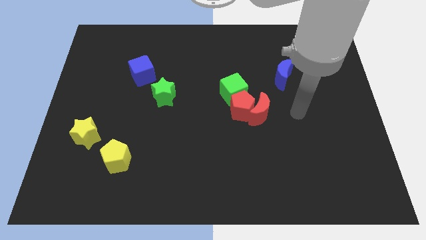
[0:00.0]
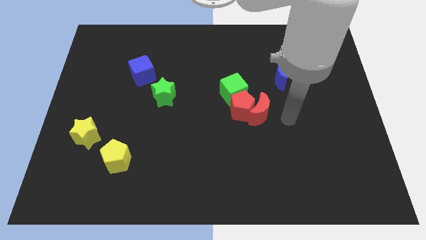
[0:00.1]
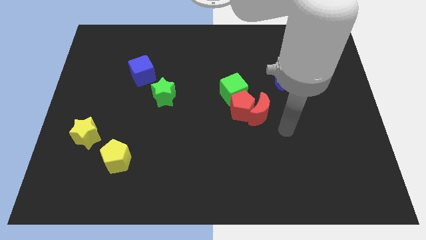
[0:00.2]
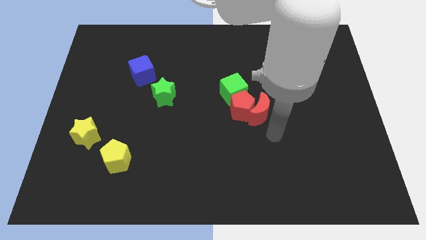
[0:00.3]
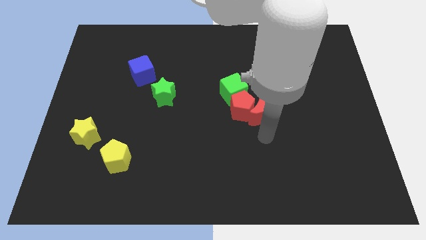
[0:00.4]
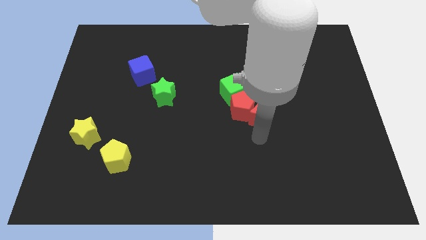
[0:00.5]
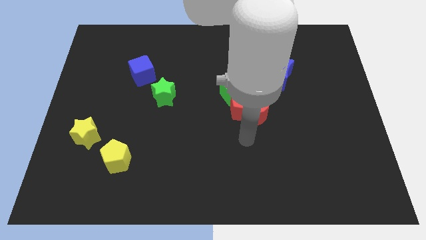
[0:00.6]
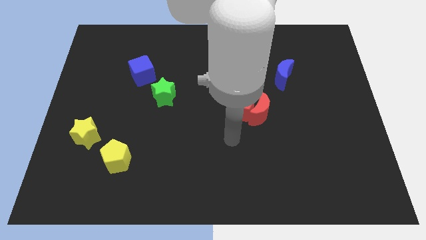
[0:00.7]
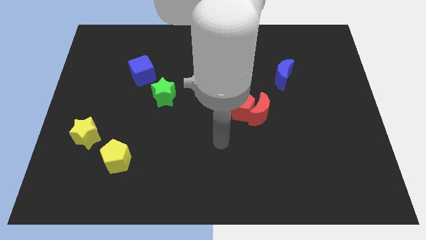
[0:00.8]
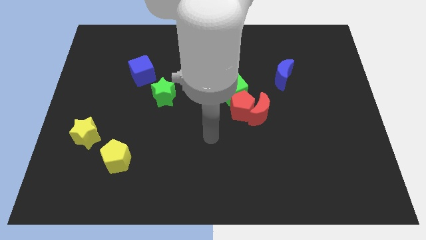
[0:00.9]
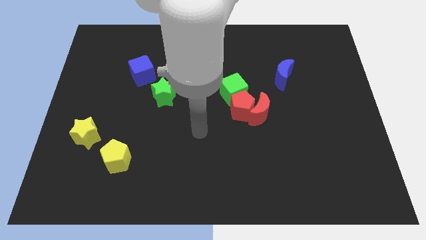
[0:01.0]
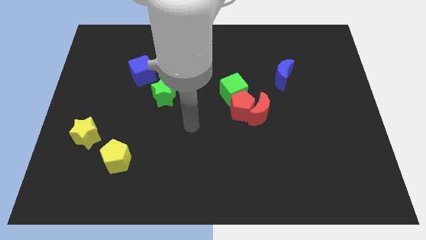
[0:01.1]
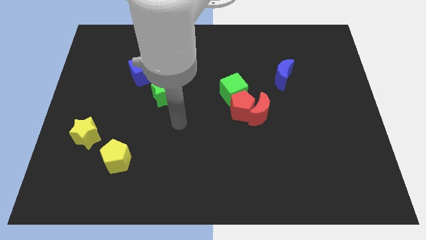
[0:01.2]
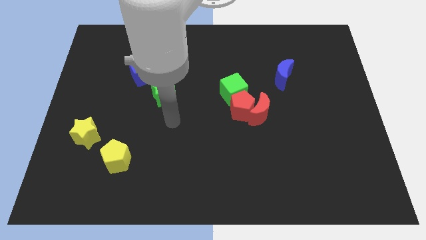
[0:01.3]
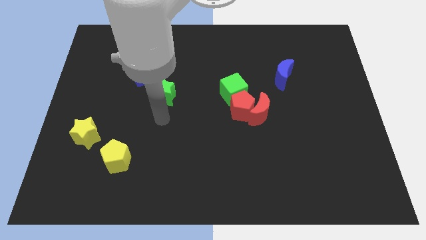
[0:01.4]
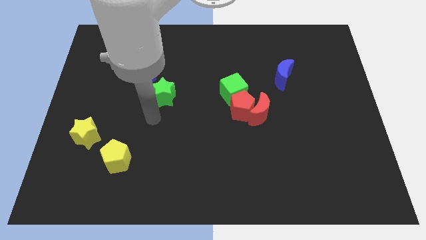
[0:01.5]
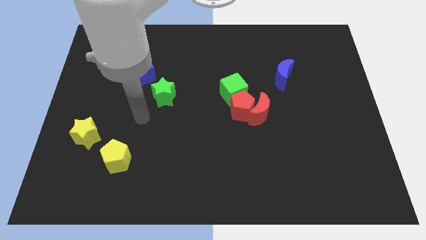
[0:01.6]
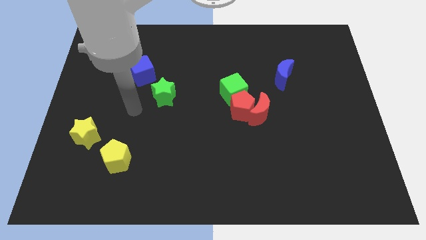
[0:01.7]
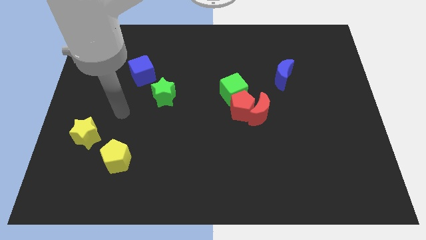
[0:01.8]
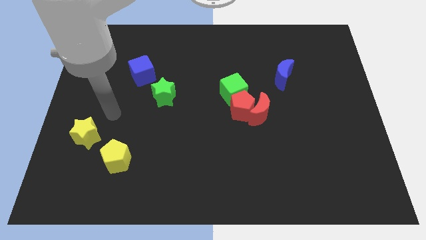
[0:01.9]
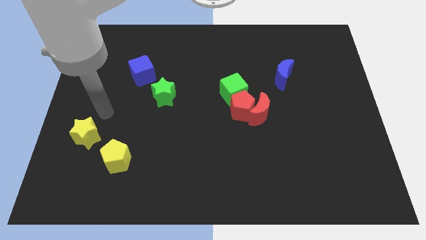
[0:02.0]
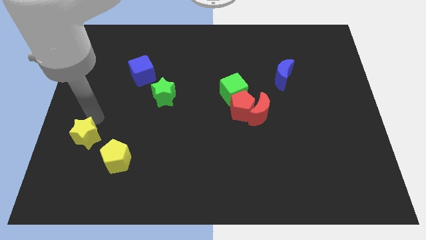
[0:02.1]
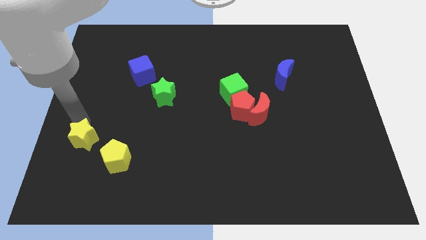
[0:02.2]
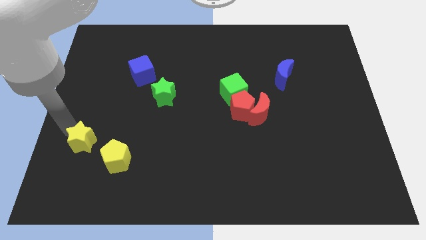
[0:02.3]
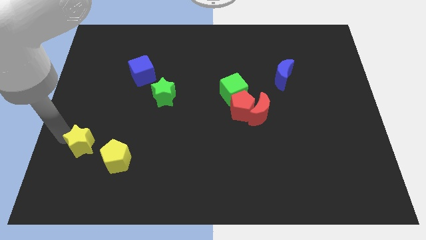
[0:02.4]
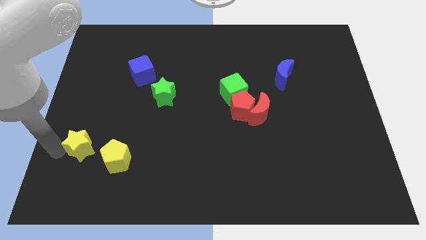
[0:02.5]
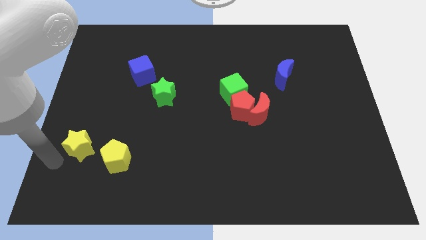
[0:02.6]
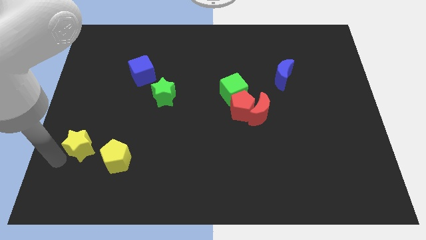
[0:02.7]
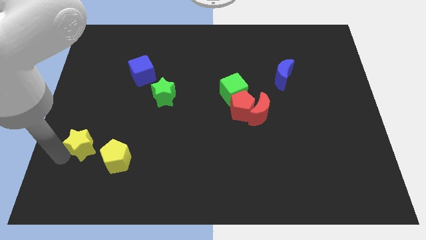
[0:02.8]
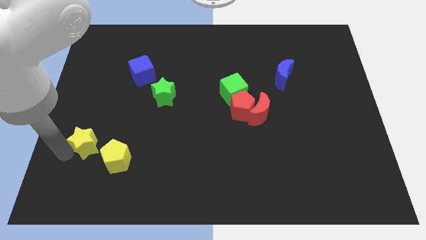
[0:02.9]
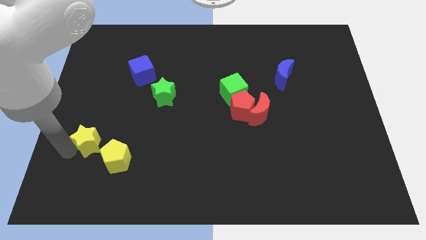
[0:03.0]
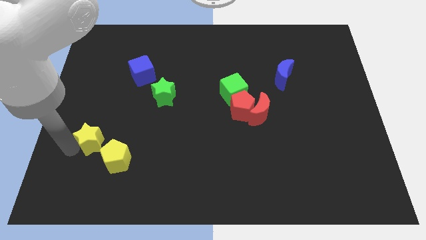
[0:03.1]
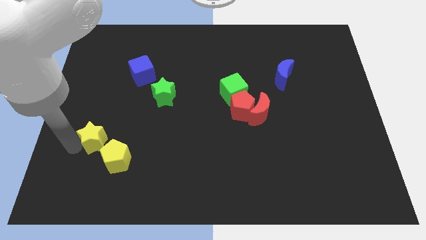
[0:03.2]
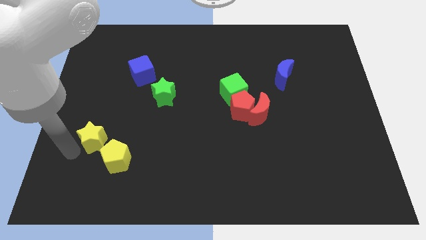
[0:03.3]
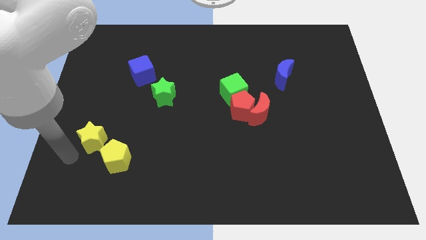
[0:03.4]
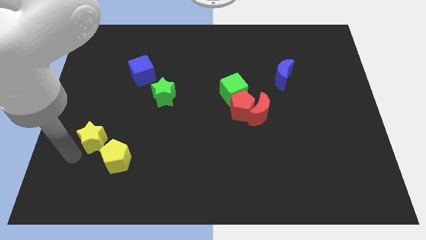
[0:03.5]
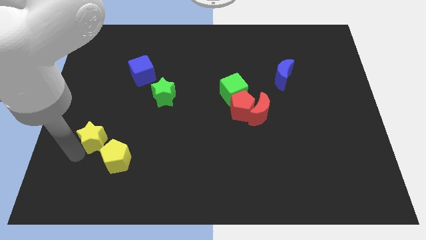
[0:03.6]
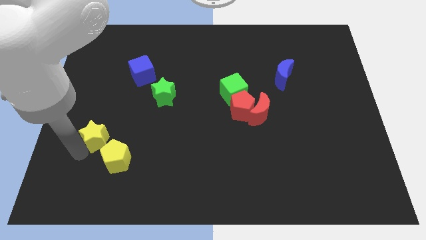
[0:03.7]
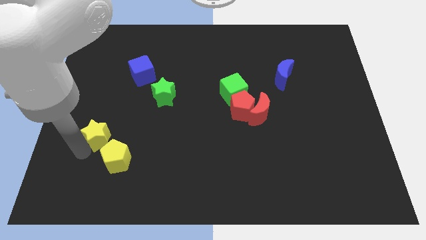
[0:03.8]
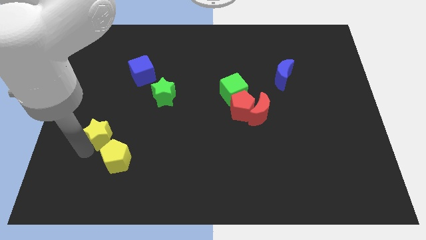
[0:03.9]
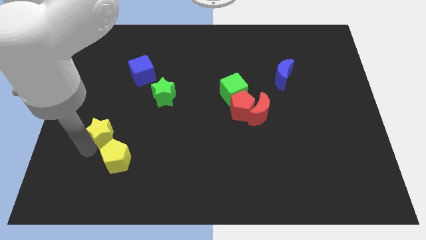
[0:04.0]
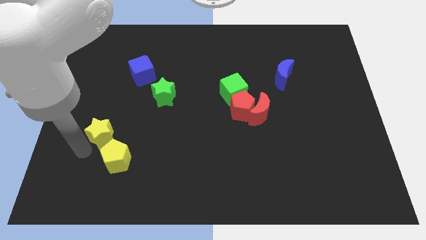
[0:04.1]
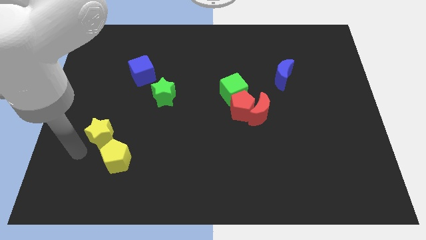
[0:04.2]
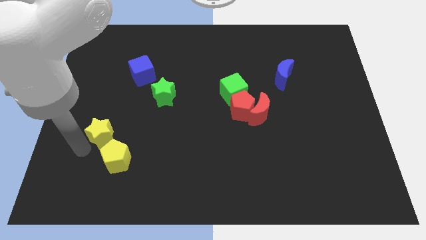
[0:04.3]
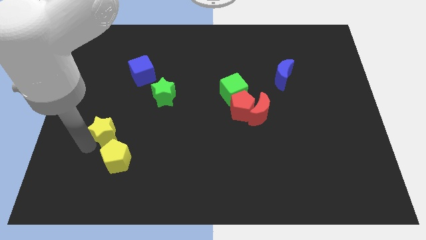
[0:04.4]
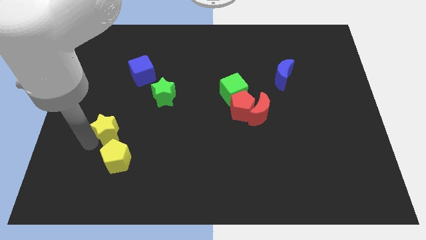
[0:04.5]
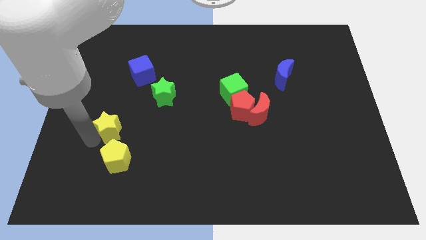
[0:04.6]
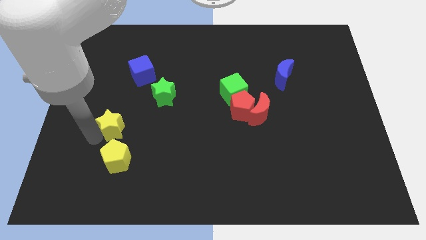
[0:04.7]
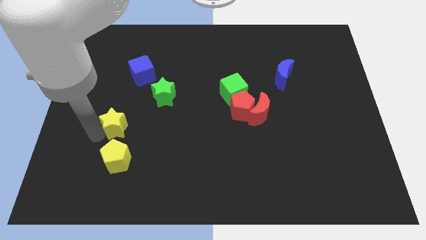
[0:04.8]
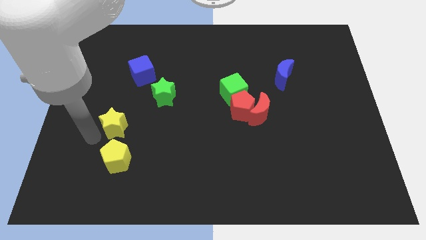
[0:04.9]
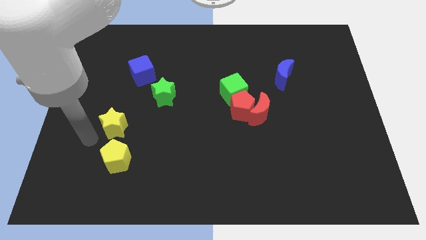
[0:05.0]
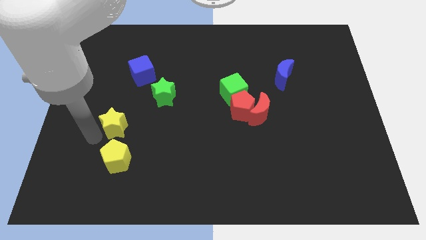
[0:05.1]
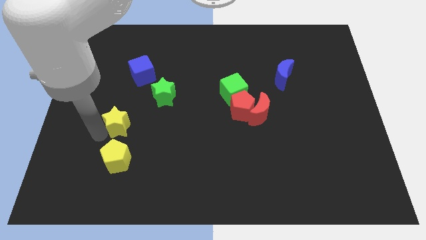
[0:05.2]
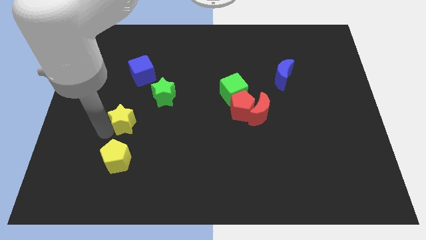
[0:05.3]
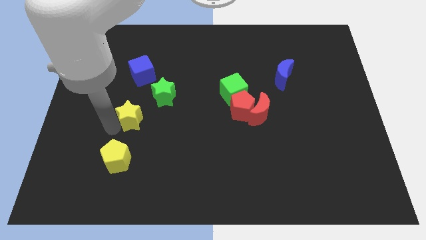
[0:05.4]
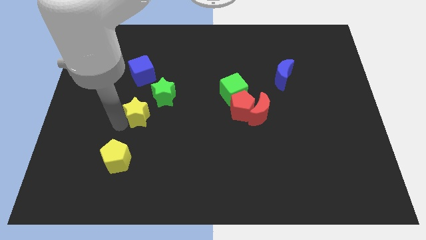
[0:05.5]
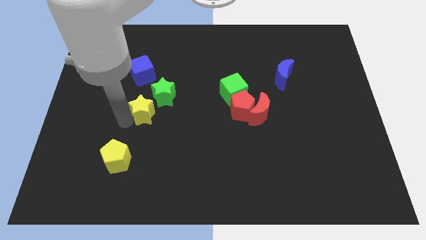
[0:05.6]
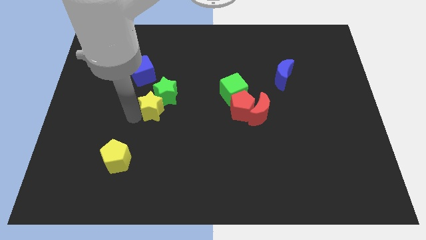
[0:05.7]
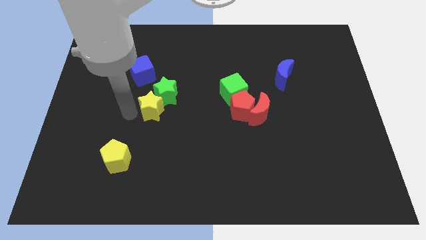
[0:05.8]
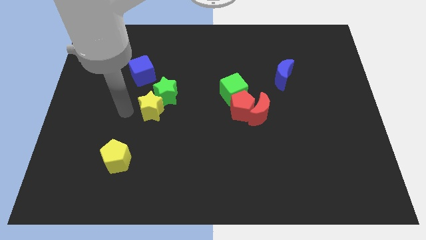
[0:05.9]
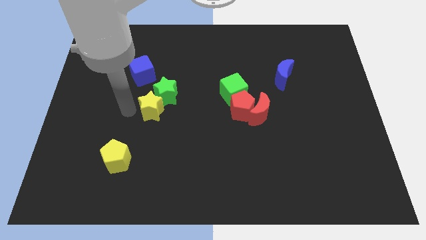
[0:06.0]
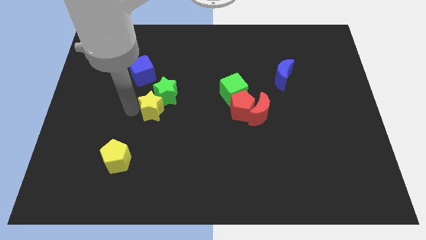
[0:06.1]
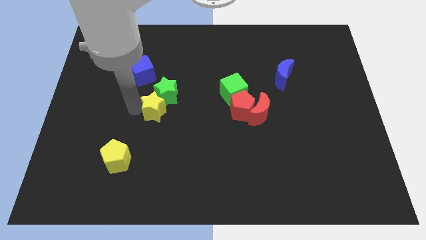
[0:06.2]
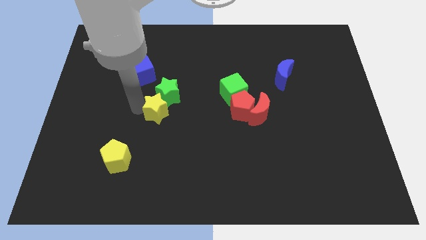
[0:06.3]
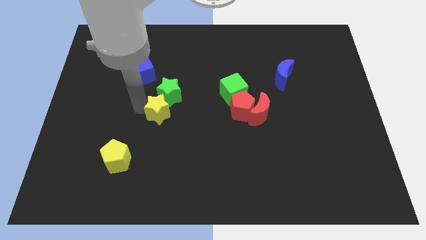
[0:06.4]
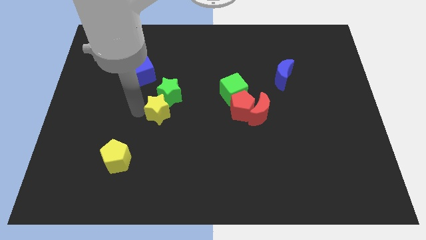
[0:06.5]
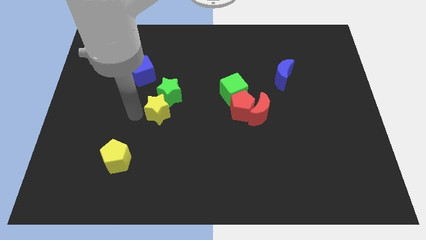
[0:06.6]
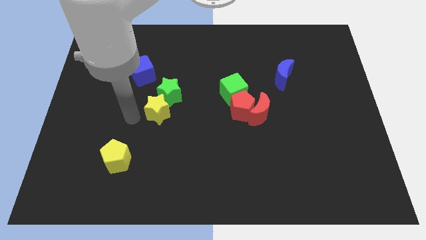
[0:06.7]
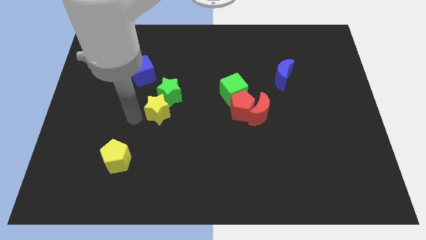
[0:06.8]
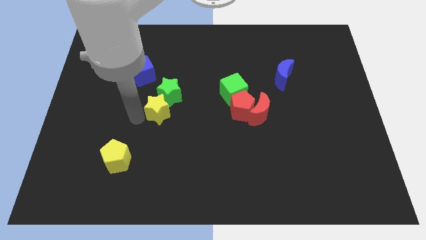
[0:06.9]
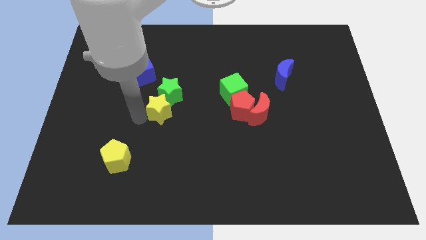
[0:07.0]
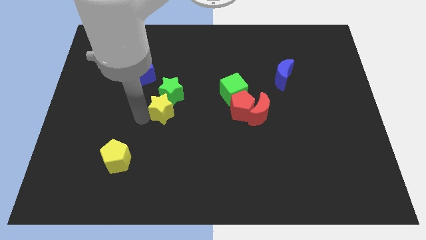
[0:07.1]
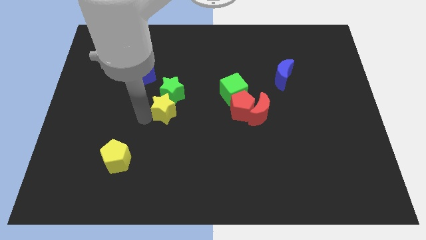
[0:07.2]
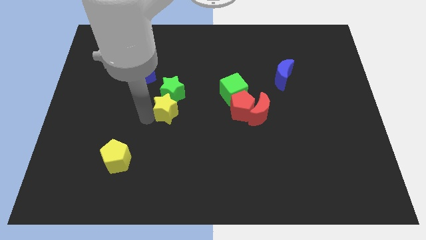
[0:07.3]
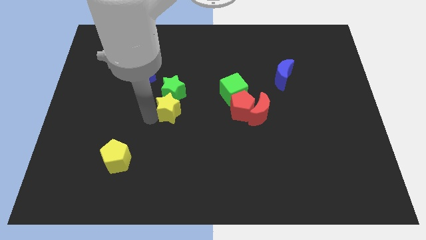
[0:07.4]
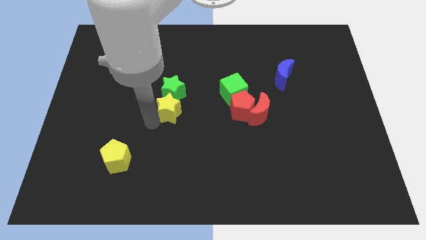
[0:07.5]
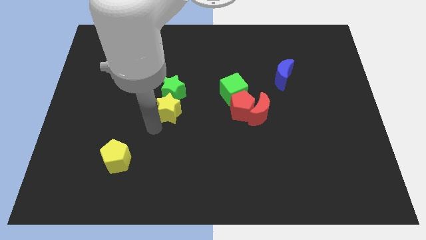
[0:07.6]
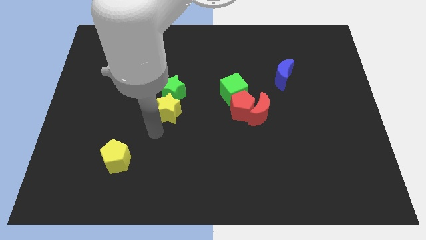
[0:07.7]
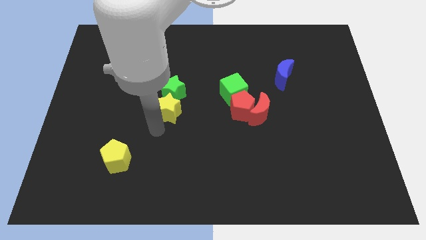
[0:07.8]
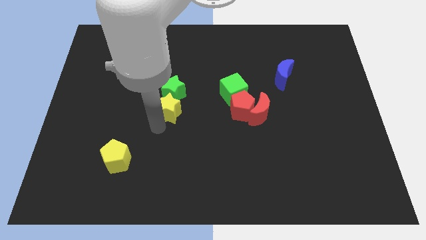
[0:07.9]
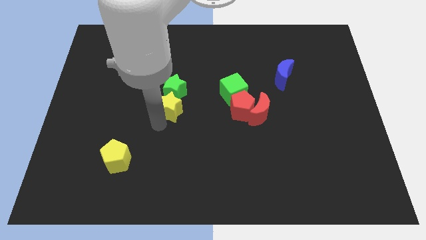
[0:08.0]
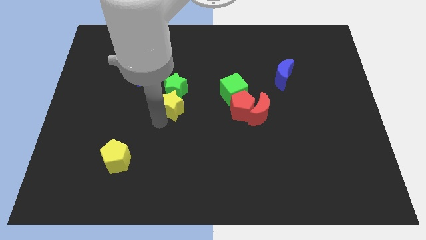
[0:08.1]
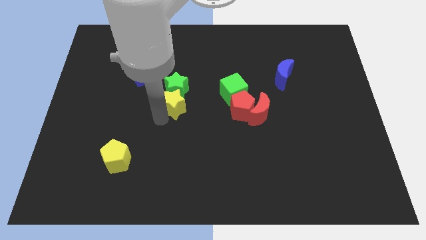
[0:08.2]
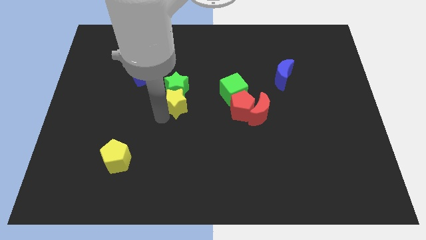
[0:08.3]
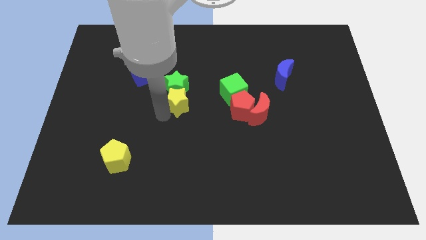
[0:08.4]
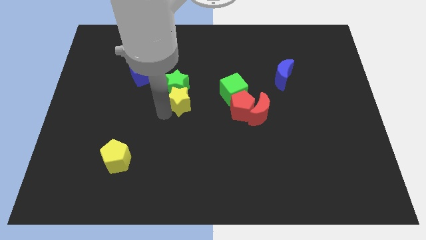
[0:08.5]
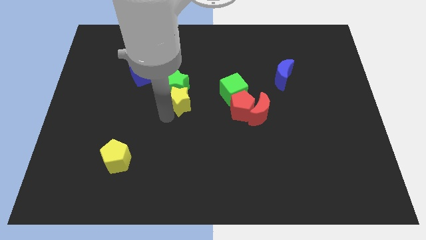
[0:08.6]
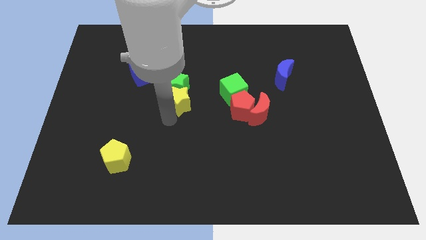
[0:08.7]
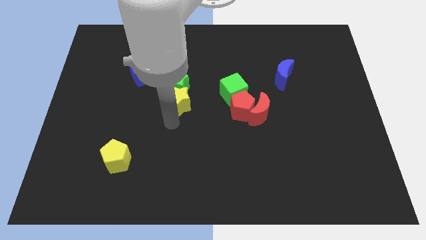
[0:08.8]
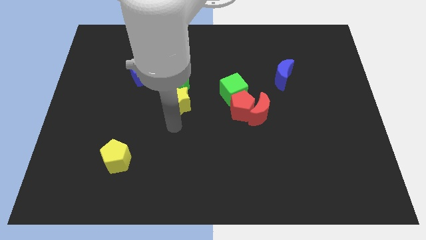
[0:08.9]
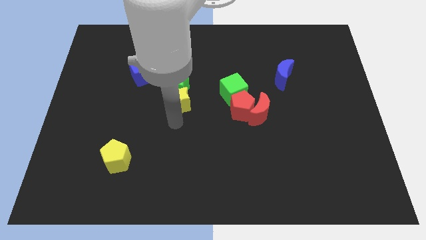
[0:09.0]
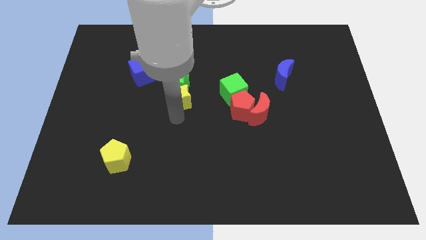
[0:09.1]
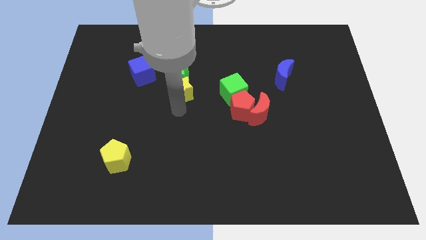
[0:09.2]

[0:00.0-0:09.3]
move the yellow star upwards and to the right
